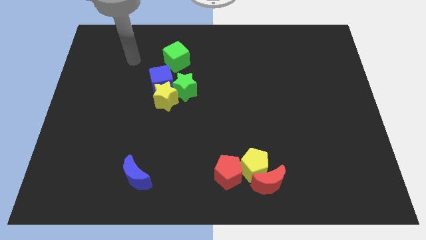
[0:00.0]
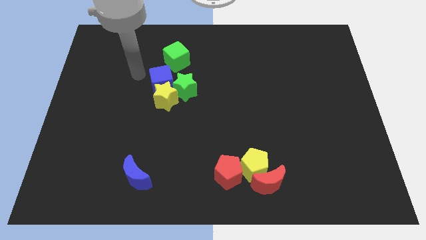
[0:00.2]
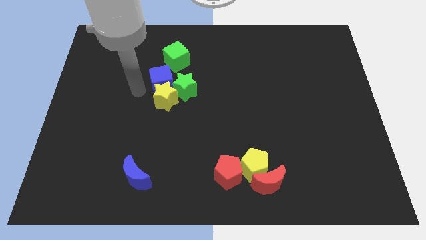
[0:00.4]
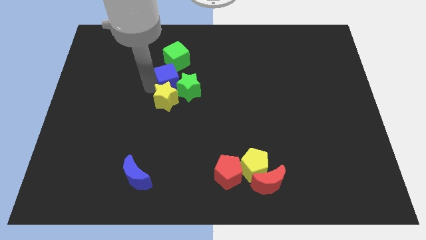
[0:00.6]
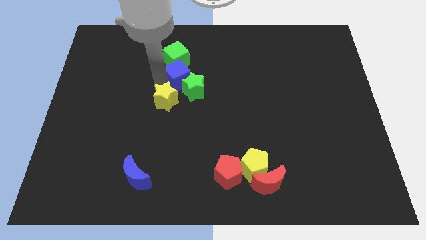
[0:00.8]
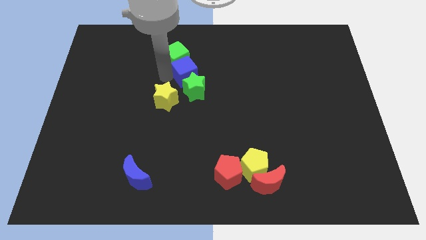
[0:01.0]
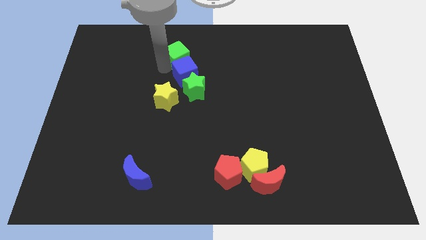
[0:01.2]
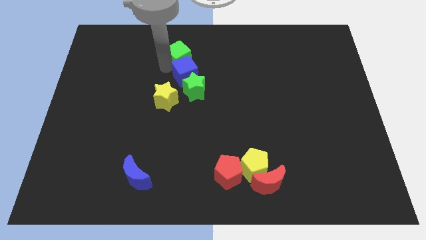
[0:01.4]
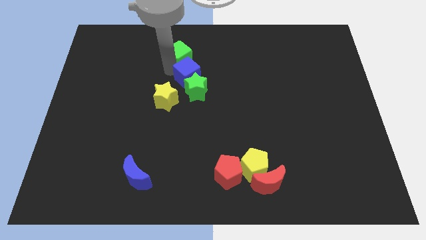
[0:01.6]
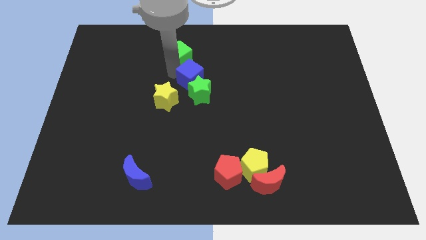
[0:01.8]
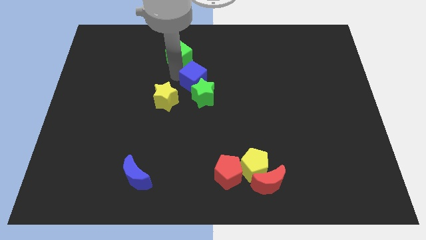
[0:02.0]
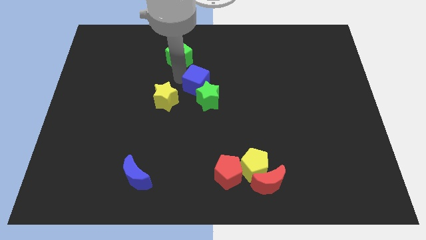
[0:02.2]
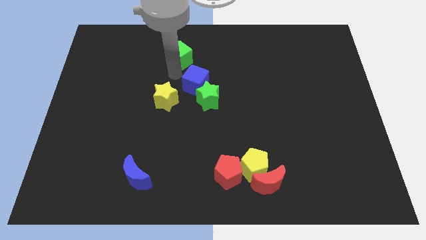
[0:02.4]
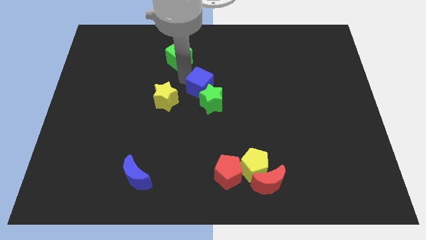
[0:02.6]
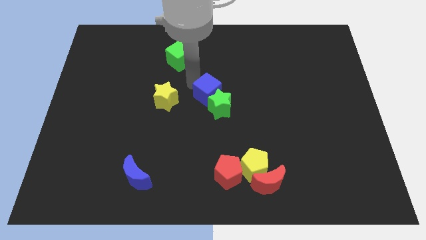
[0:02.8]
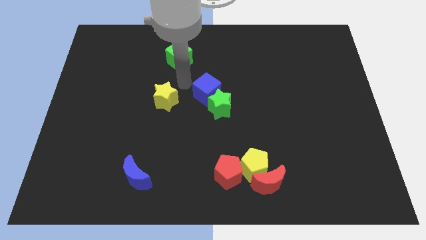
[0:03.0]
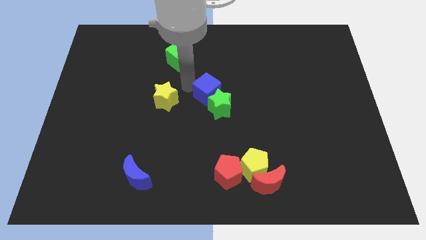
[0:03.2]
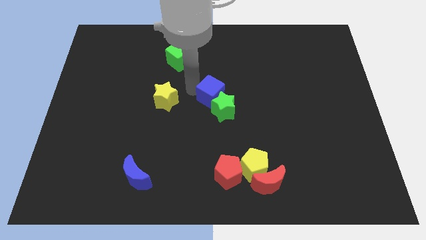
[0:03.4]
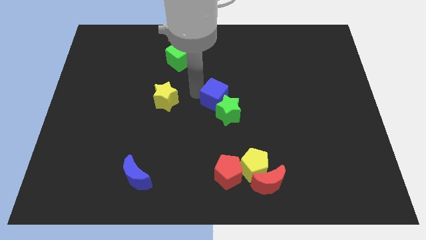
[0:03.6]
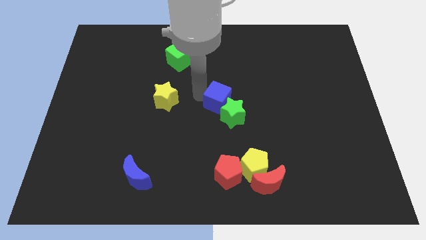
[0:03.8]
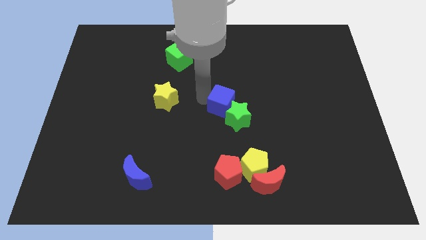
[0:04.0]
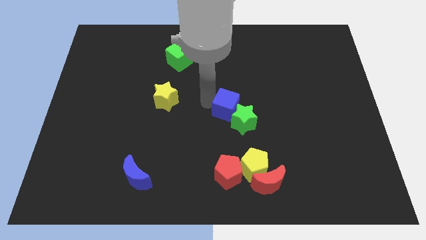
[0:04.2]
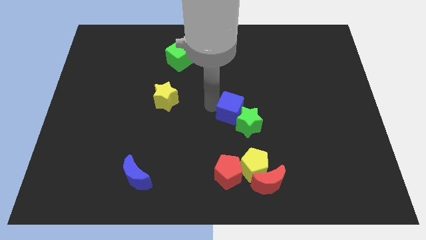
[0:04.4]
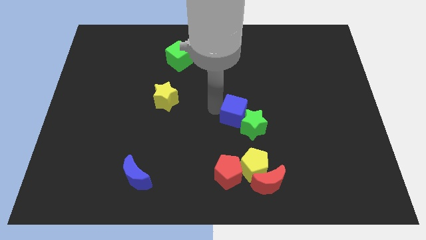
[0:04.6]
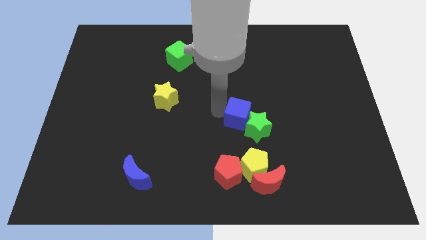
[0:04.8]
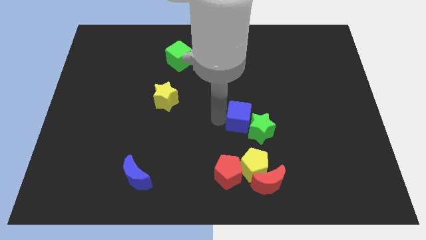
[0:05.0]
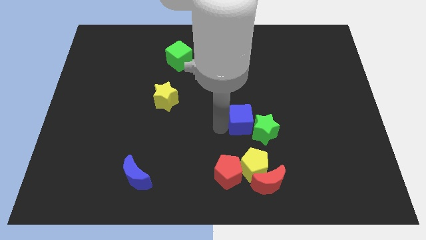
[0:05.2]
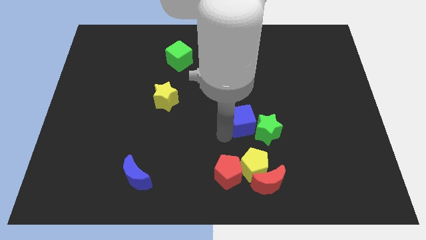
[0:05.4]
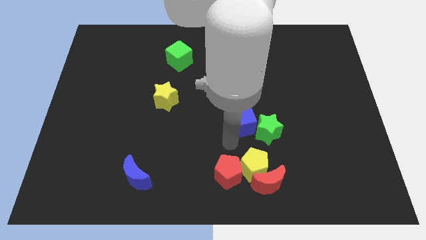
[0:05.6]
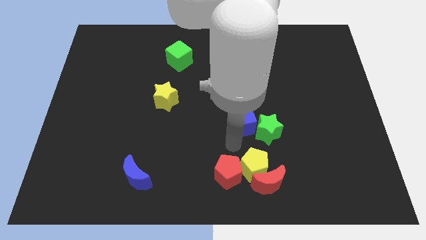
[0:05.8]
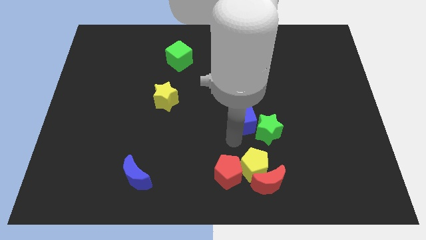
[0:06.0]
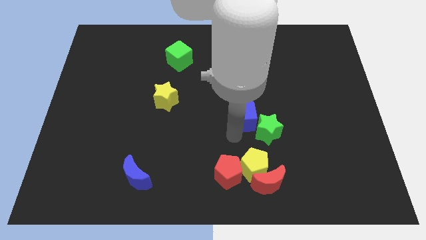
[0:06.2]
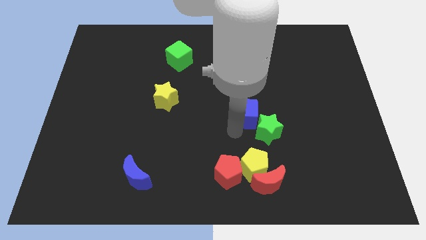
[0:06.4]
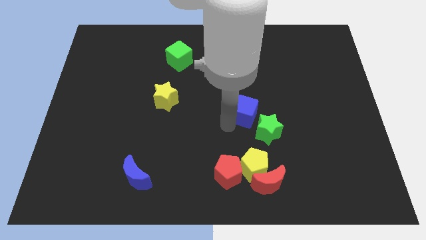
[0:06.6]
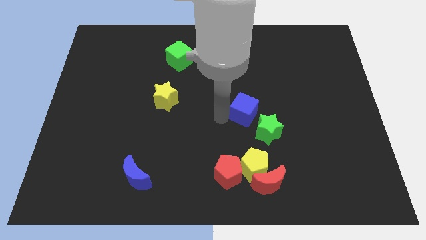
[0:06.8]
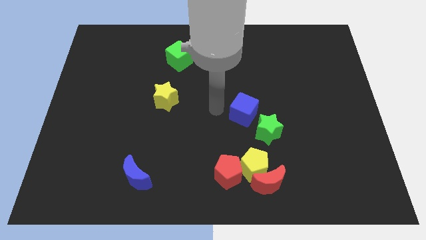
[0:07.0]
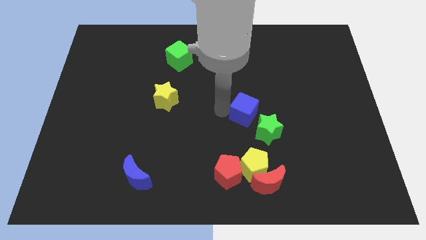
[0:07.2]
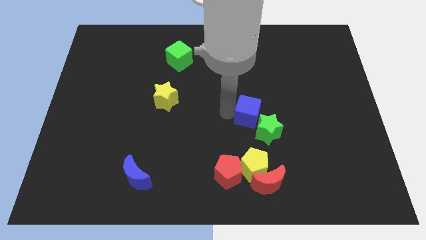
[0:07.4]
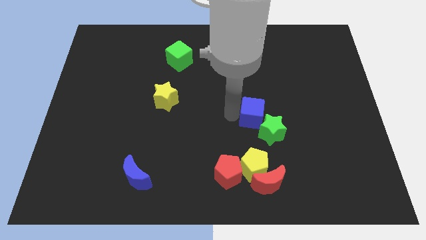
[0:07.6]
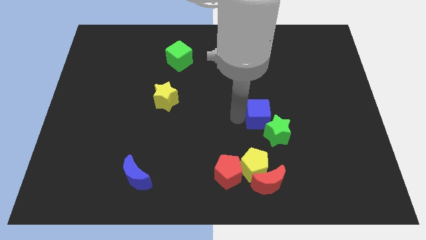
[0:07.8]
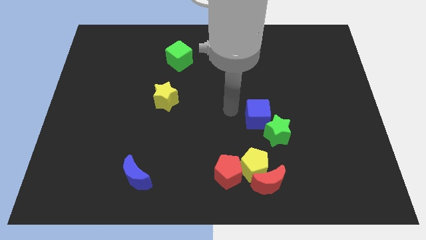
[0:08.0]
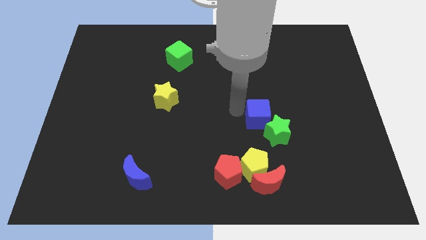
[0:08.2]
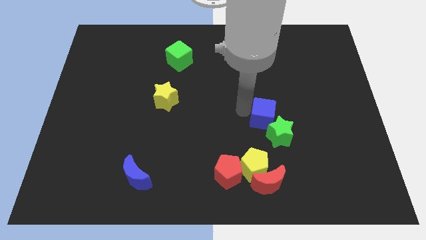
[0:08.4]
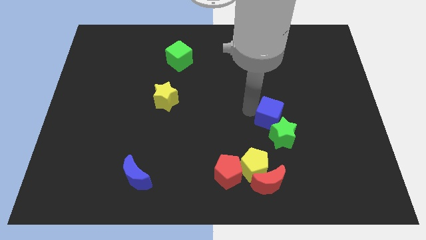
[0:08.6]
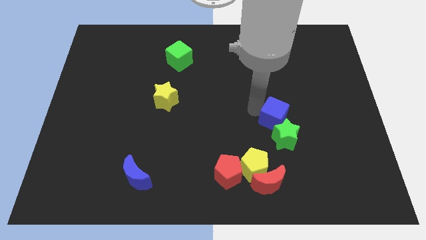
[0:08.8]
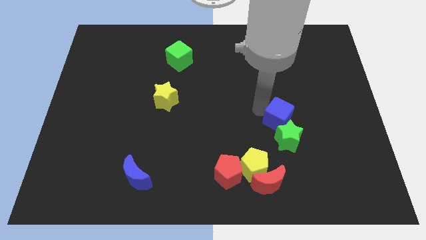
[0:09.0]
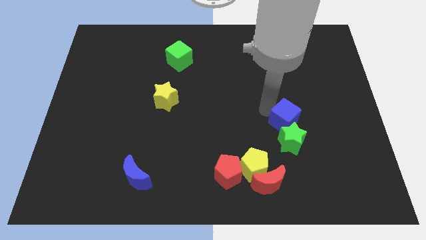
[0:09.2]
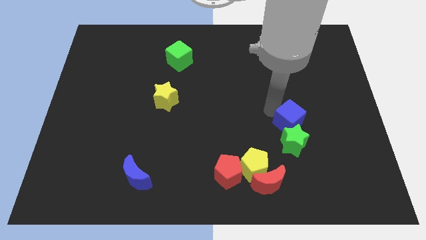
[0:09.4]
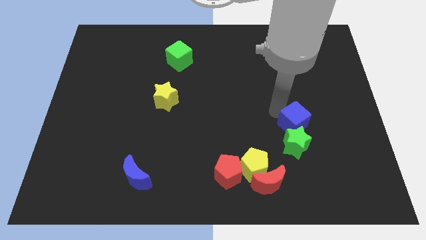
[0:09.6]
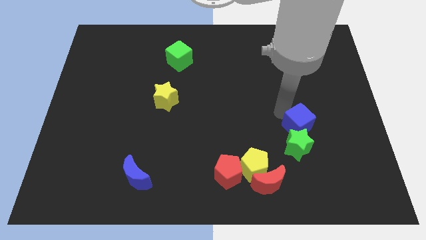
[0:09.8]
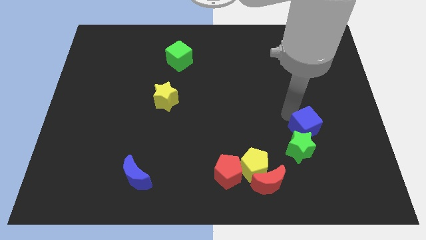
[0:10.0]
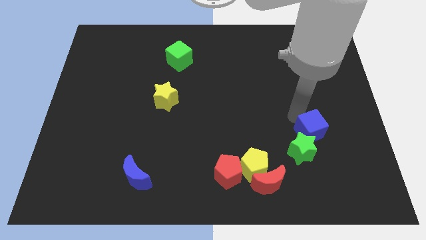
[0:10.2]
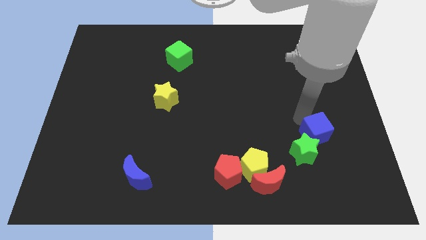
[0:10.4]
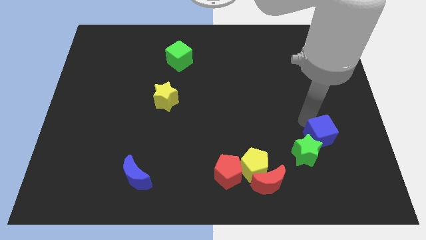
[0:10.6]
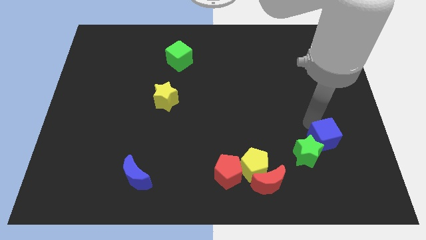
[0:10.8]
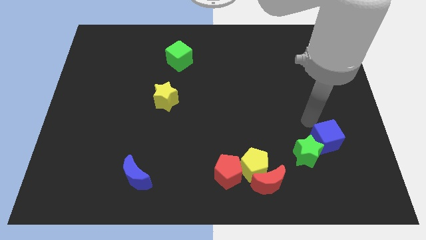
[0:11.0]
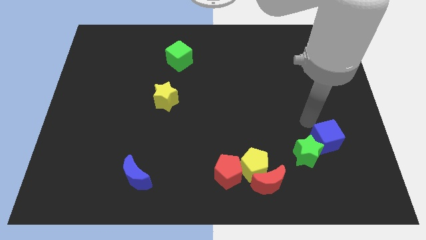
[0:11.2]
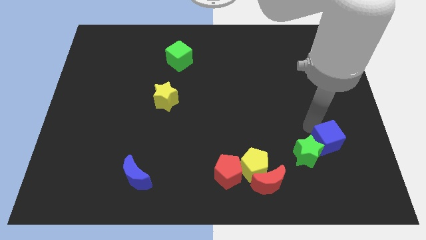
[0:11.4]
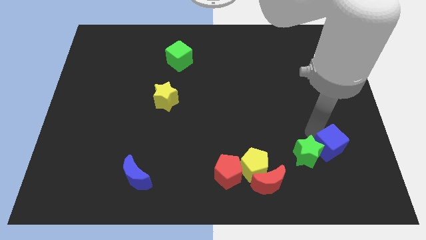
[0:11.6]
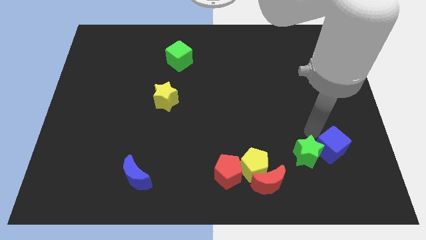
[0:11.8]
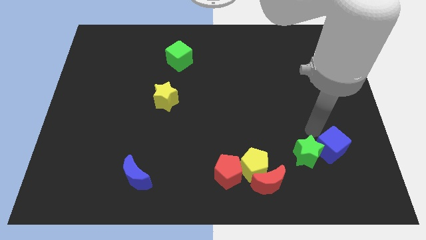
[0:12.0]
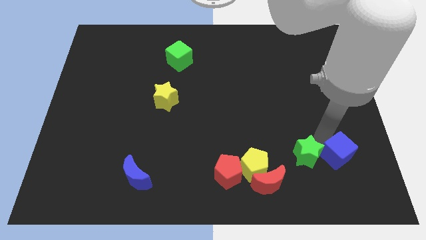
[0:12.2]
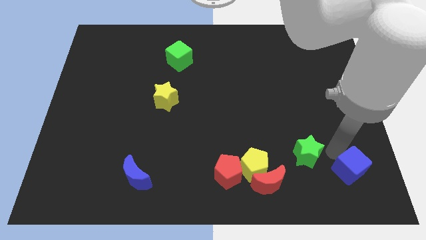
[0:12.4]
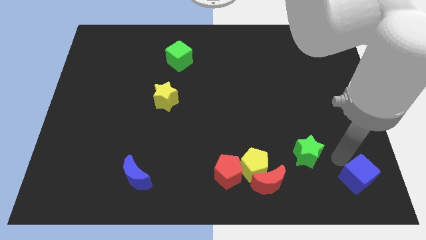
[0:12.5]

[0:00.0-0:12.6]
slide the blue cube to the lower right corner

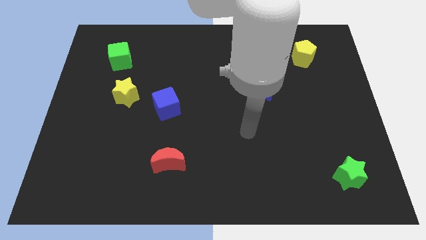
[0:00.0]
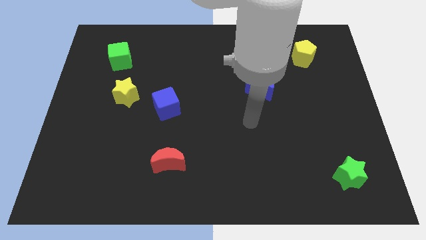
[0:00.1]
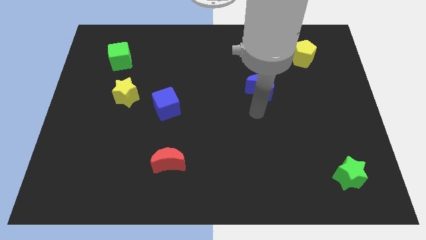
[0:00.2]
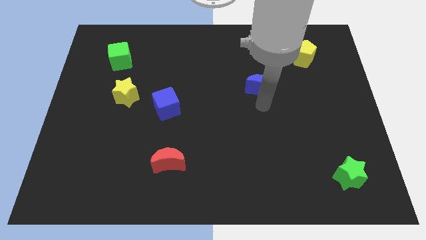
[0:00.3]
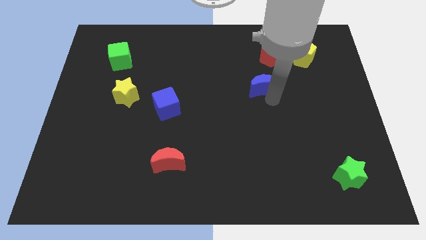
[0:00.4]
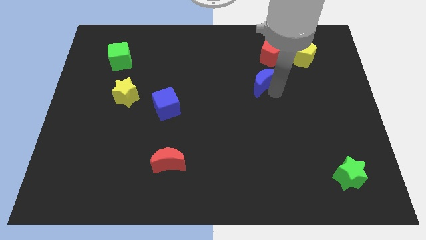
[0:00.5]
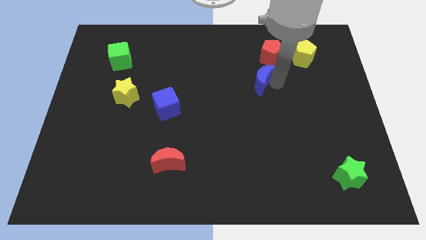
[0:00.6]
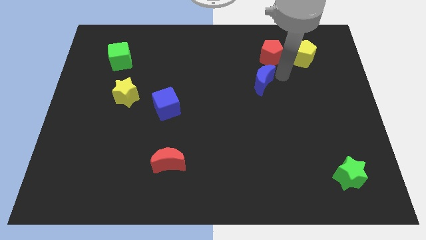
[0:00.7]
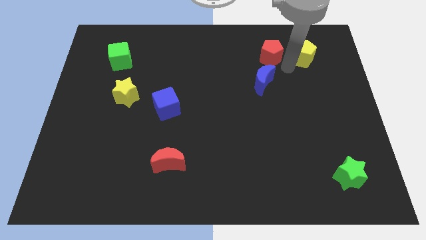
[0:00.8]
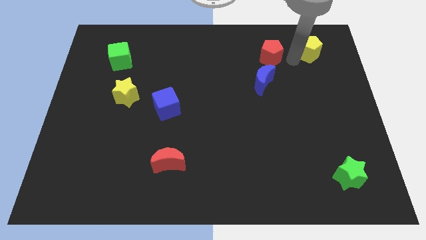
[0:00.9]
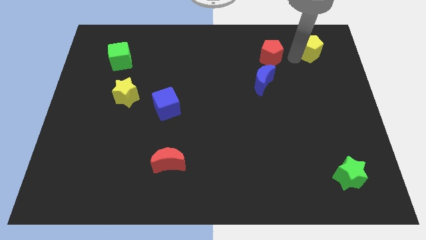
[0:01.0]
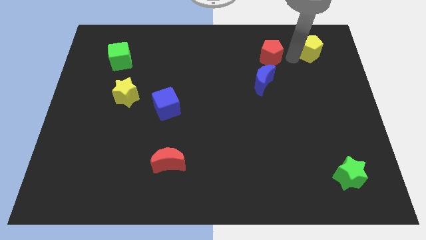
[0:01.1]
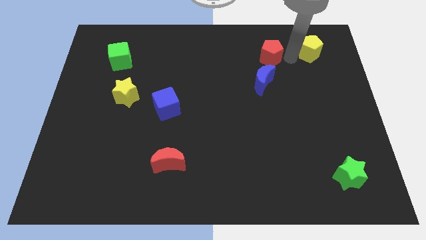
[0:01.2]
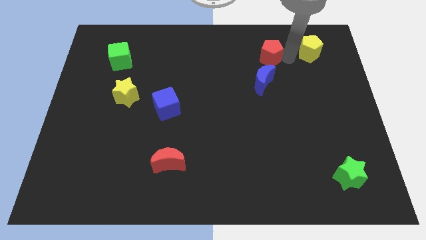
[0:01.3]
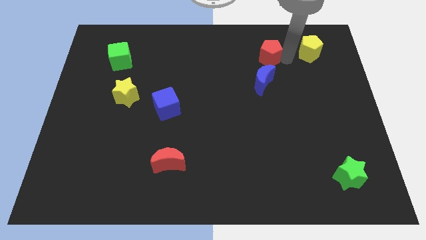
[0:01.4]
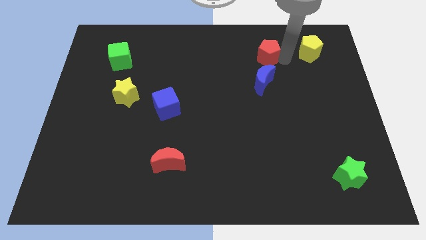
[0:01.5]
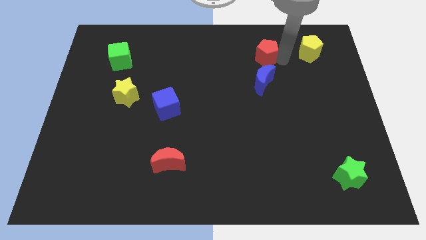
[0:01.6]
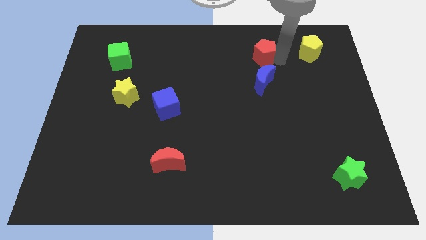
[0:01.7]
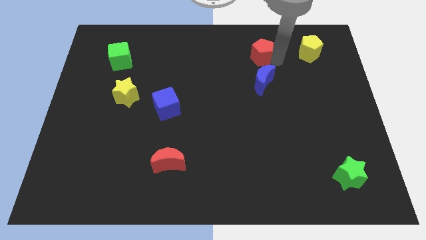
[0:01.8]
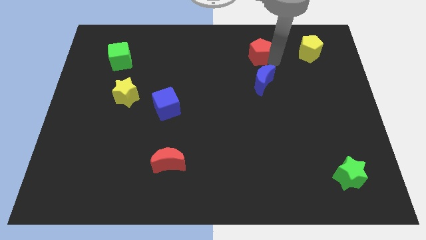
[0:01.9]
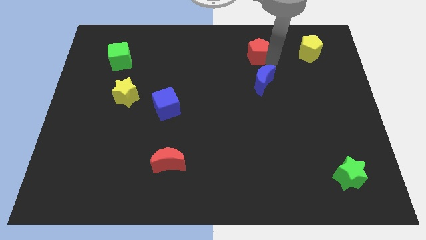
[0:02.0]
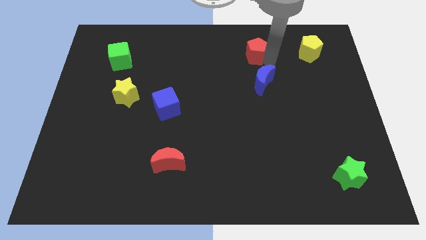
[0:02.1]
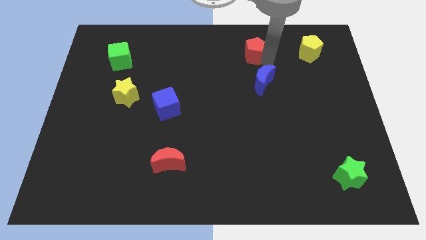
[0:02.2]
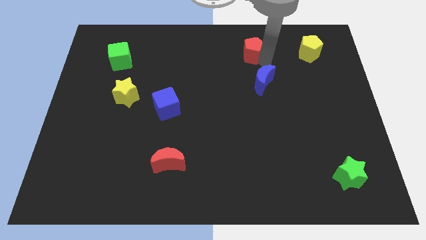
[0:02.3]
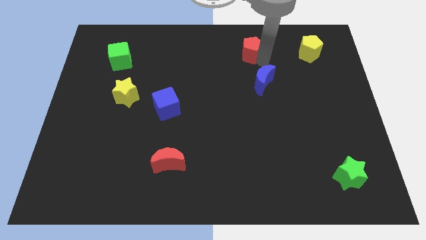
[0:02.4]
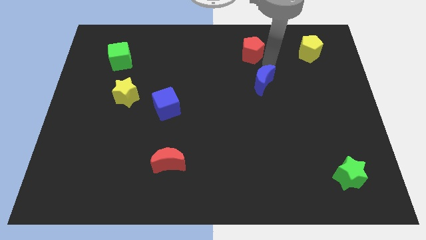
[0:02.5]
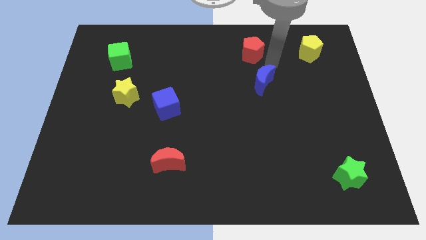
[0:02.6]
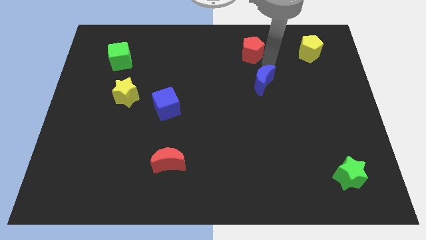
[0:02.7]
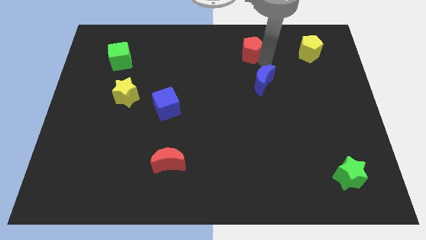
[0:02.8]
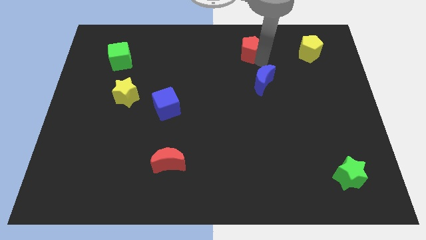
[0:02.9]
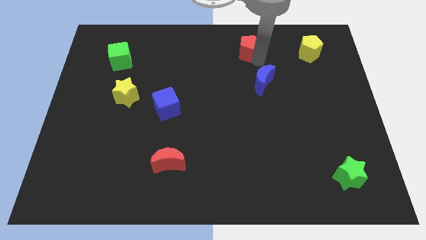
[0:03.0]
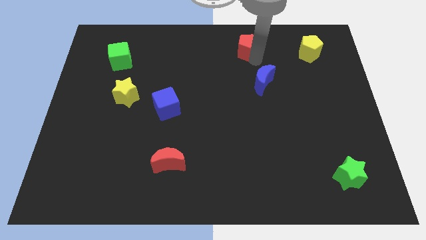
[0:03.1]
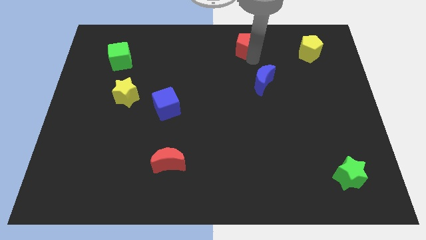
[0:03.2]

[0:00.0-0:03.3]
push the red pentagon to the top
